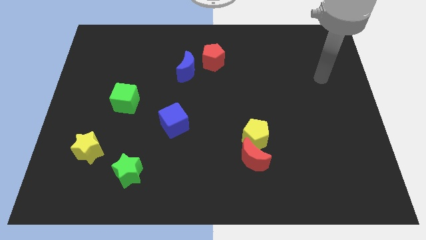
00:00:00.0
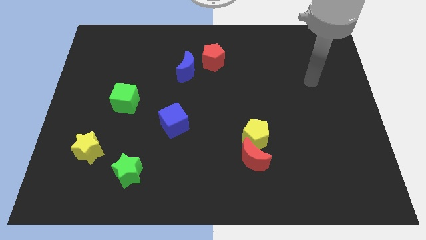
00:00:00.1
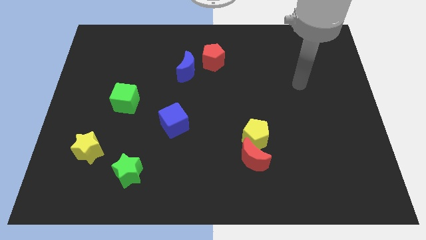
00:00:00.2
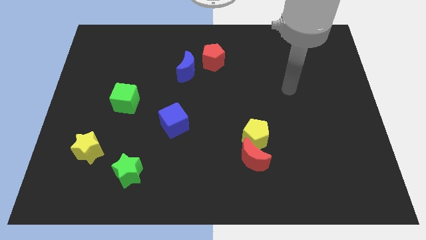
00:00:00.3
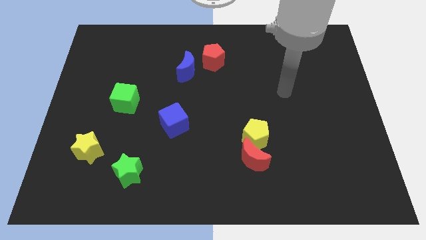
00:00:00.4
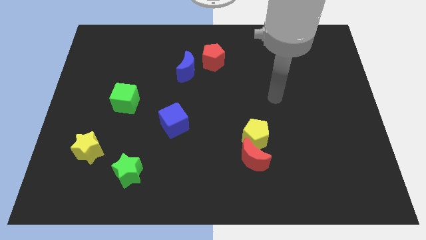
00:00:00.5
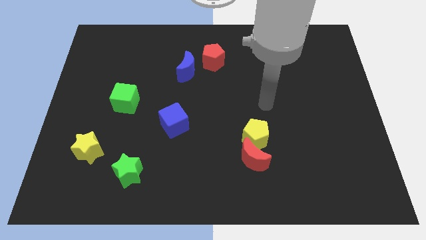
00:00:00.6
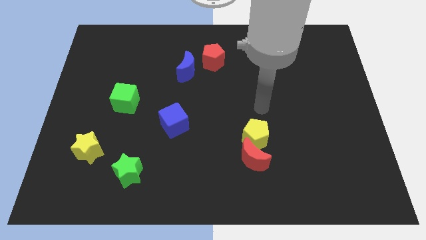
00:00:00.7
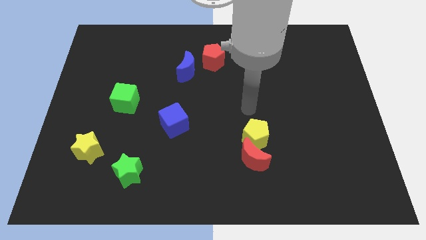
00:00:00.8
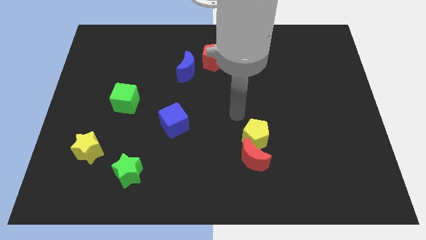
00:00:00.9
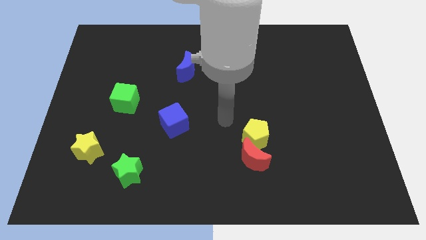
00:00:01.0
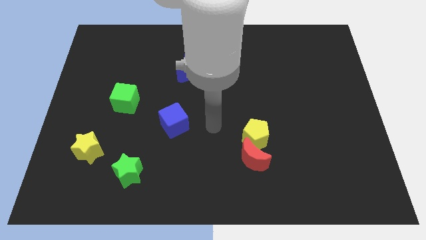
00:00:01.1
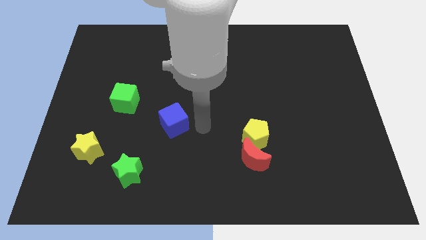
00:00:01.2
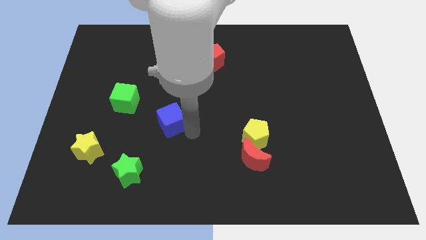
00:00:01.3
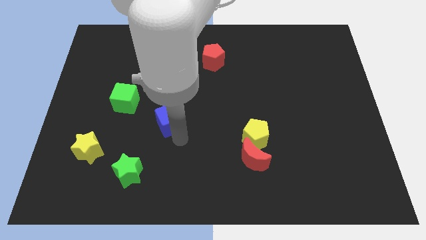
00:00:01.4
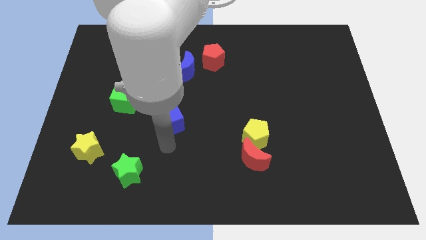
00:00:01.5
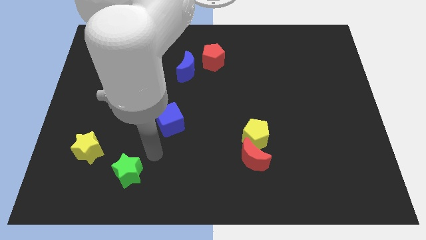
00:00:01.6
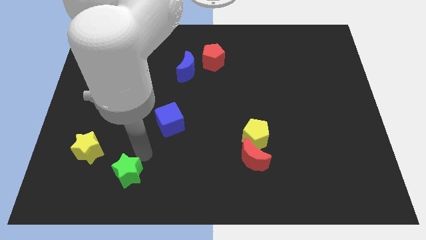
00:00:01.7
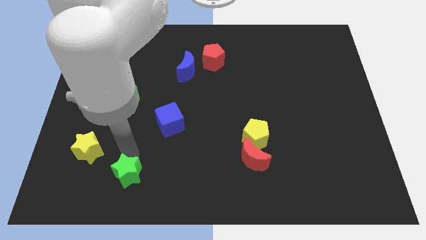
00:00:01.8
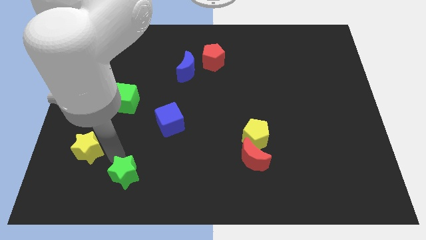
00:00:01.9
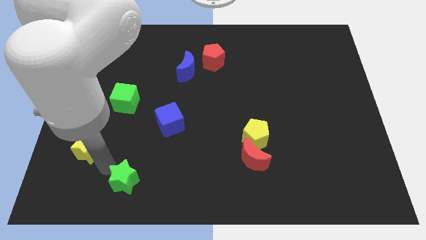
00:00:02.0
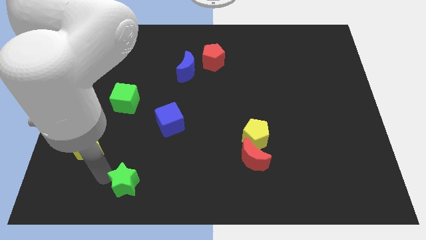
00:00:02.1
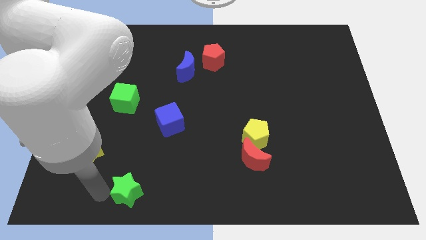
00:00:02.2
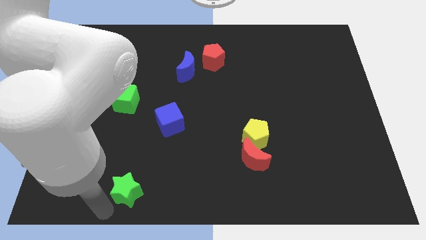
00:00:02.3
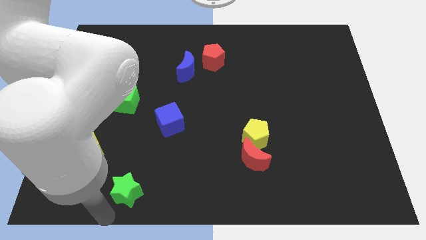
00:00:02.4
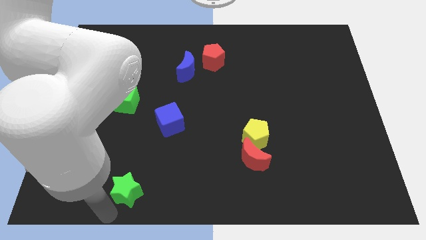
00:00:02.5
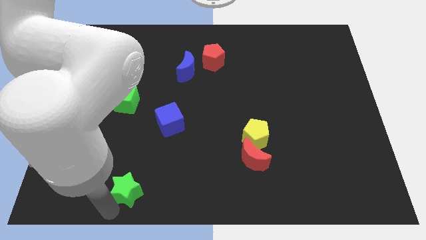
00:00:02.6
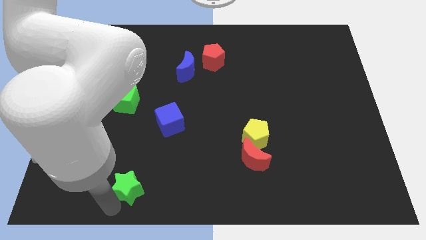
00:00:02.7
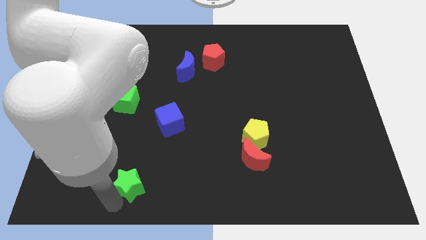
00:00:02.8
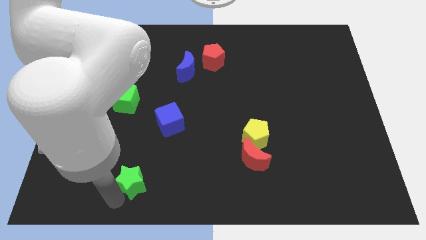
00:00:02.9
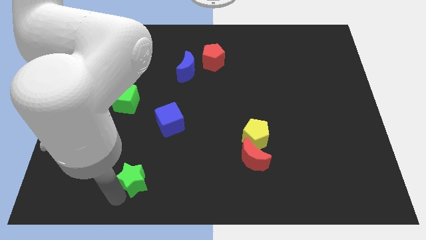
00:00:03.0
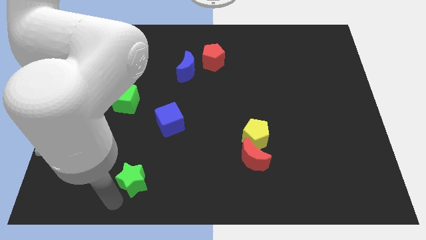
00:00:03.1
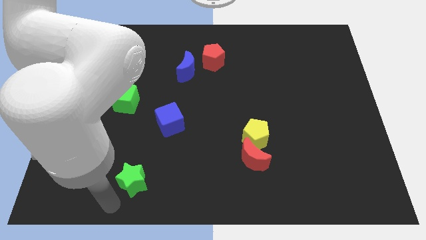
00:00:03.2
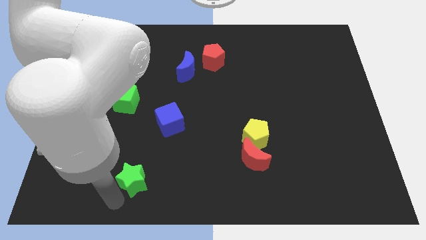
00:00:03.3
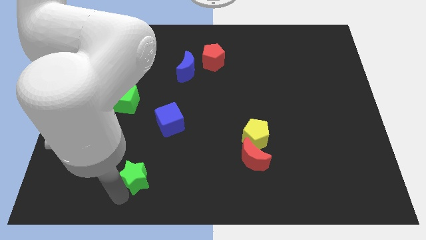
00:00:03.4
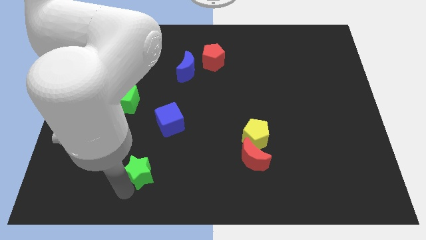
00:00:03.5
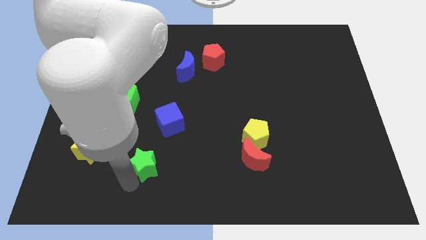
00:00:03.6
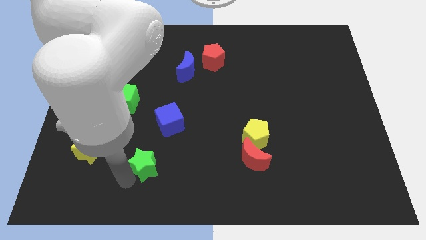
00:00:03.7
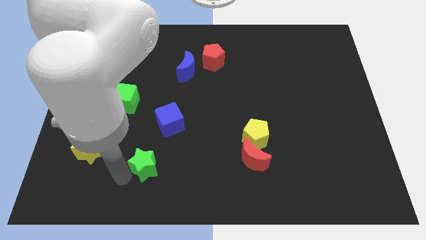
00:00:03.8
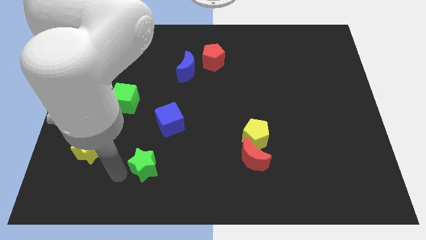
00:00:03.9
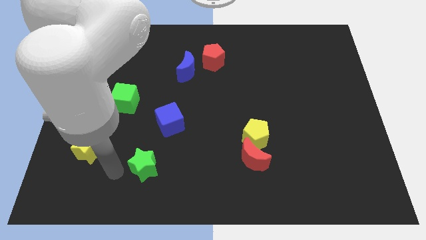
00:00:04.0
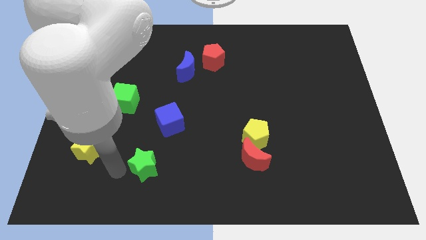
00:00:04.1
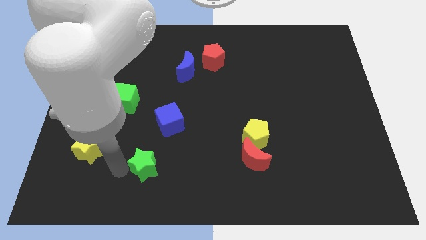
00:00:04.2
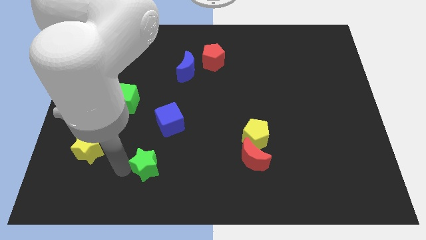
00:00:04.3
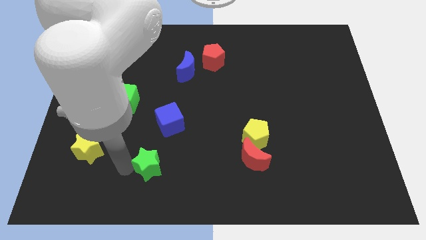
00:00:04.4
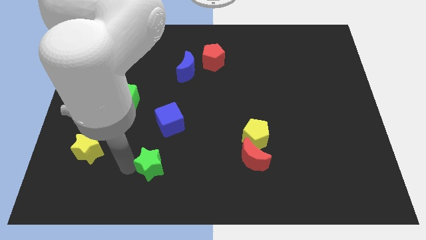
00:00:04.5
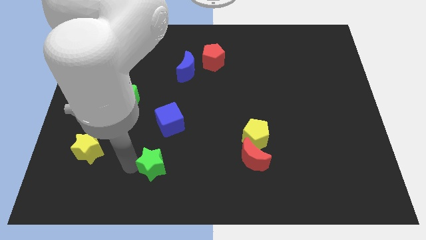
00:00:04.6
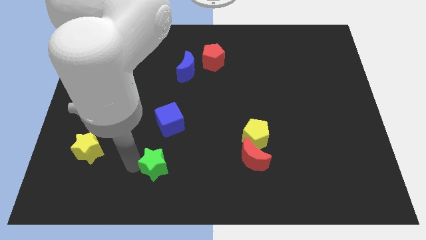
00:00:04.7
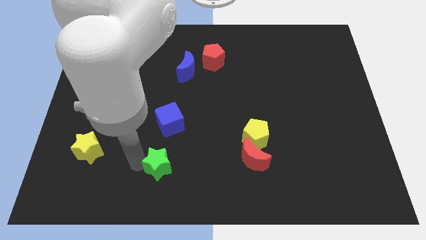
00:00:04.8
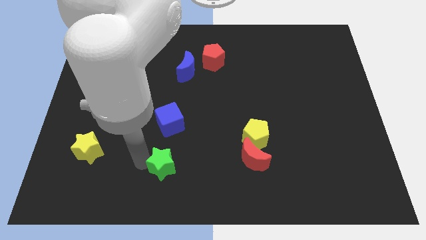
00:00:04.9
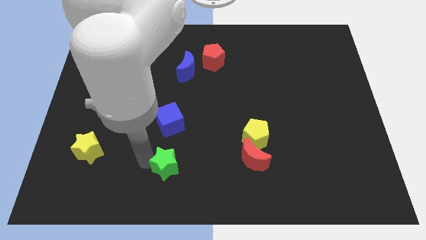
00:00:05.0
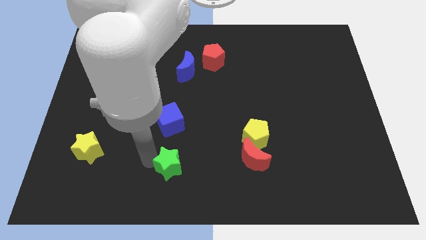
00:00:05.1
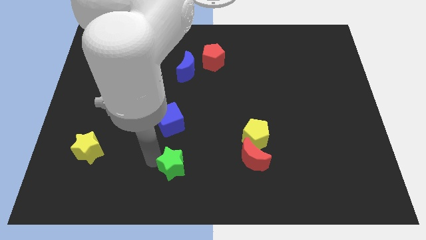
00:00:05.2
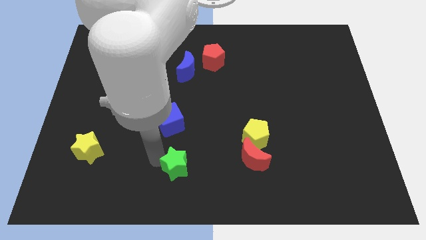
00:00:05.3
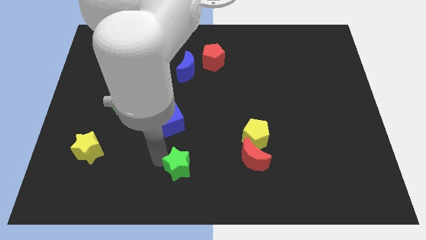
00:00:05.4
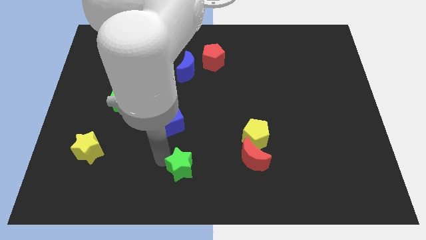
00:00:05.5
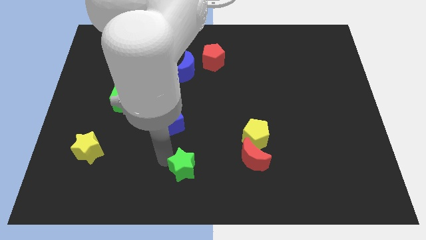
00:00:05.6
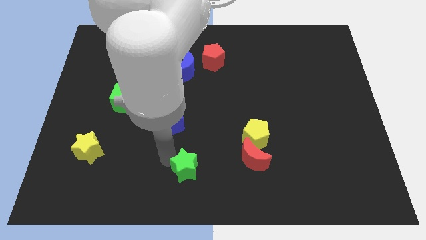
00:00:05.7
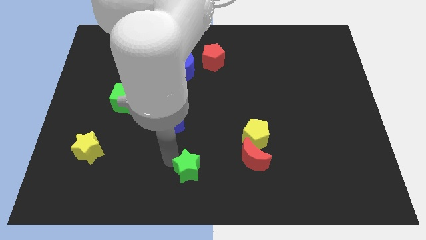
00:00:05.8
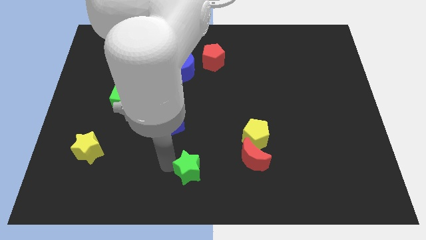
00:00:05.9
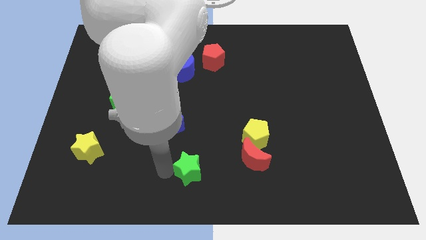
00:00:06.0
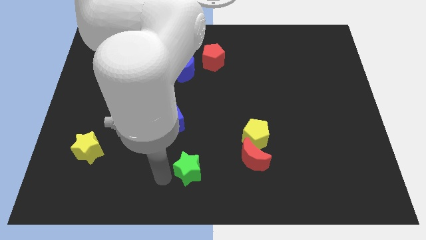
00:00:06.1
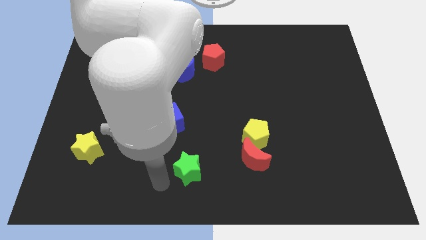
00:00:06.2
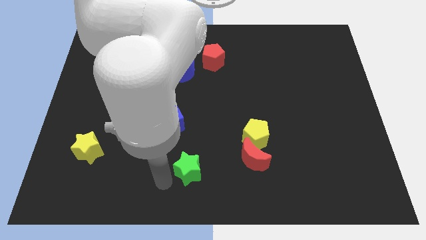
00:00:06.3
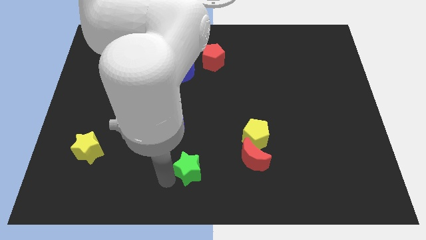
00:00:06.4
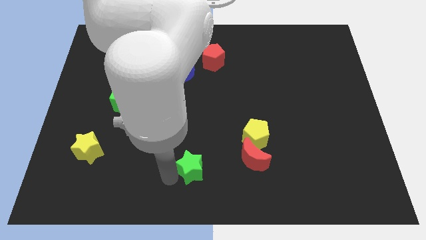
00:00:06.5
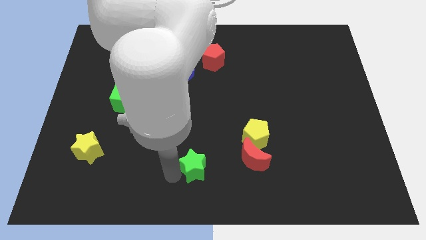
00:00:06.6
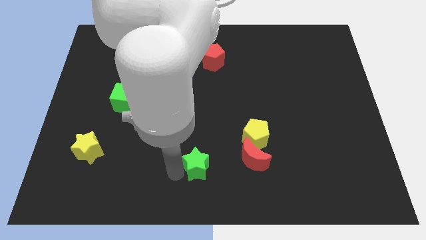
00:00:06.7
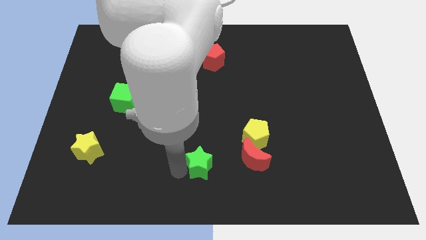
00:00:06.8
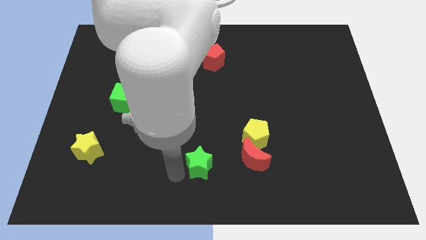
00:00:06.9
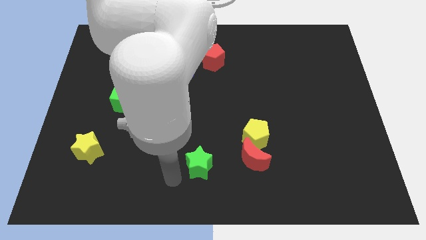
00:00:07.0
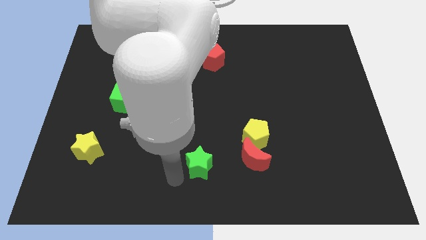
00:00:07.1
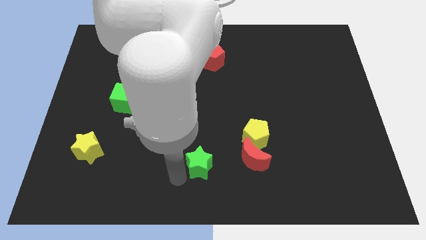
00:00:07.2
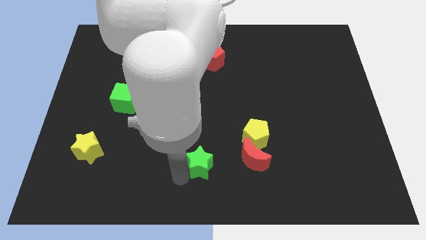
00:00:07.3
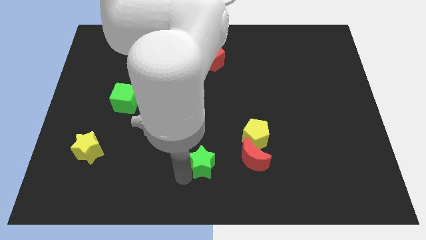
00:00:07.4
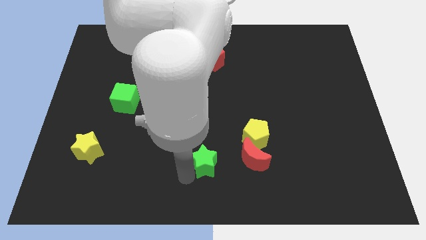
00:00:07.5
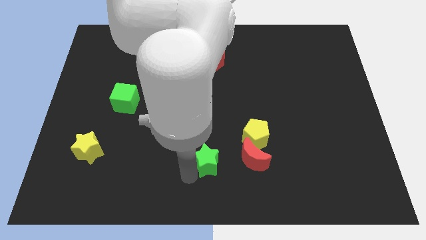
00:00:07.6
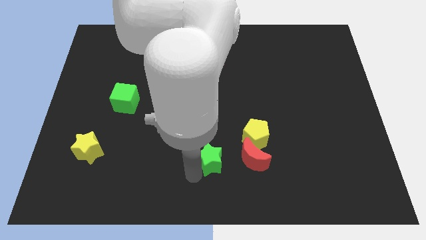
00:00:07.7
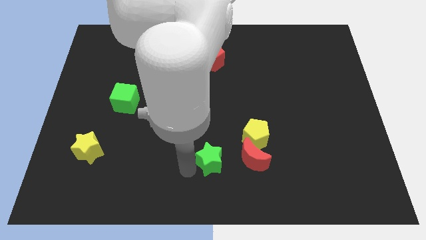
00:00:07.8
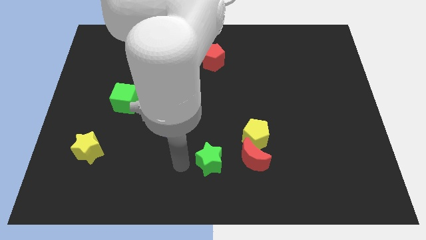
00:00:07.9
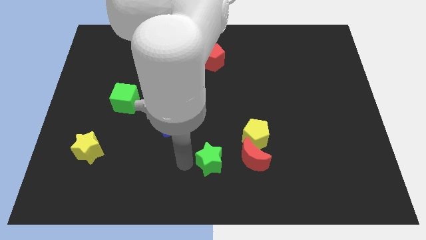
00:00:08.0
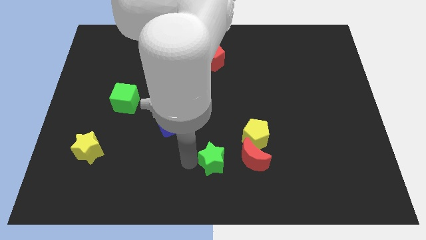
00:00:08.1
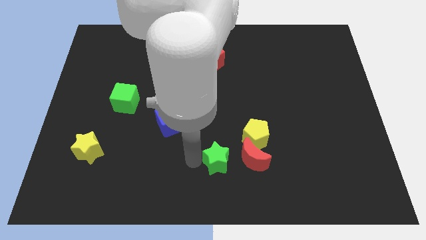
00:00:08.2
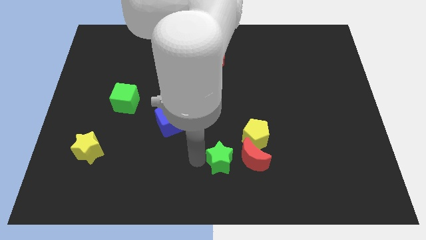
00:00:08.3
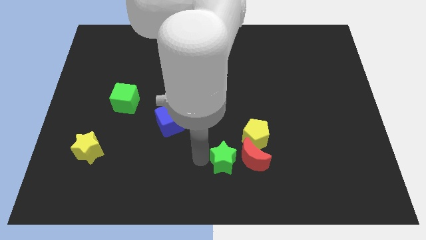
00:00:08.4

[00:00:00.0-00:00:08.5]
slide the green star close to the red moon
